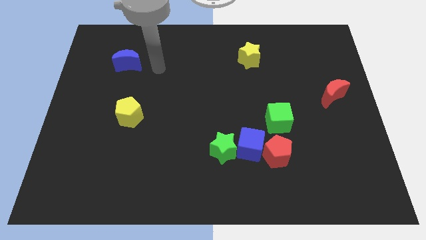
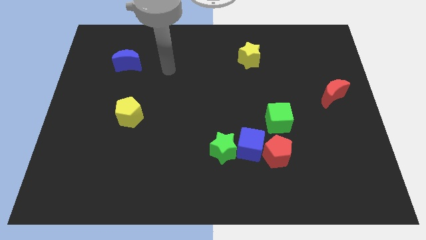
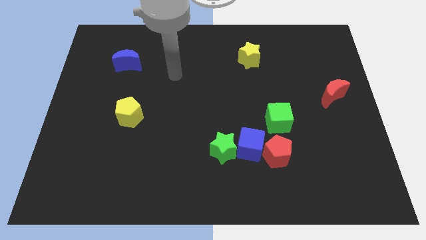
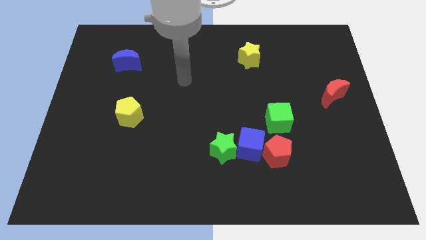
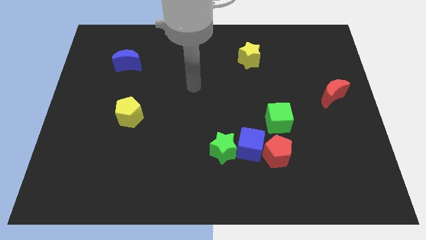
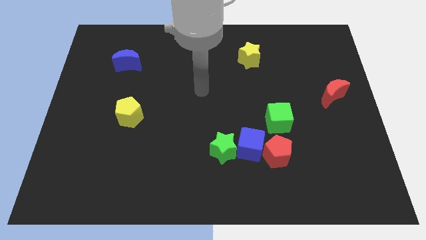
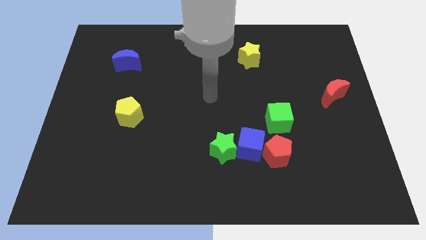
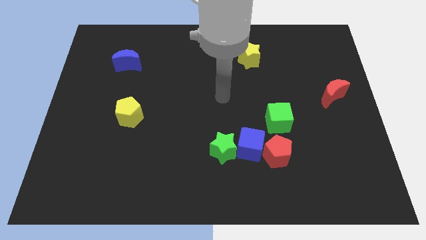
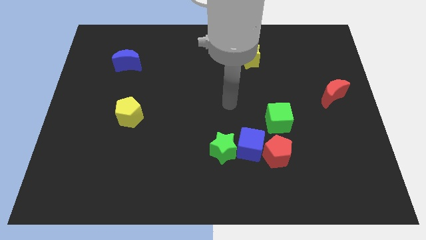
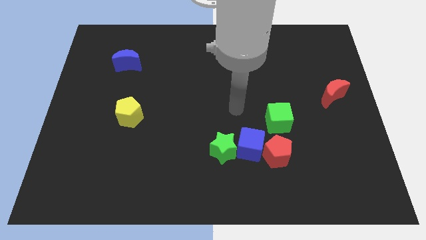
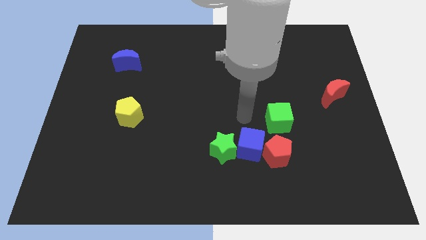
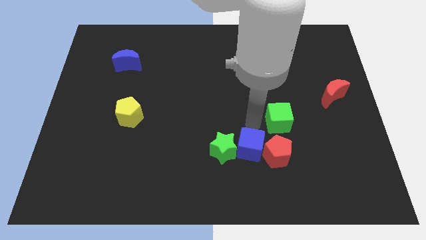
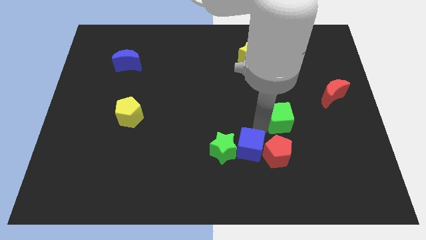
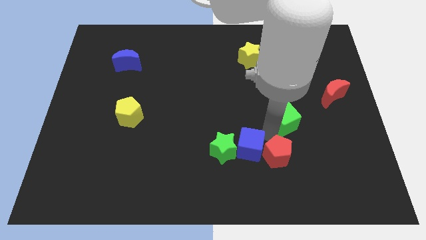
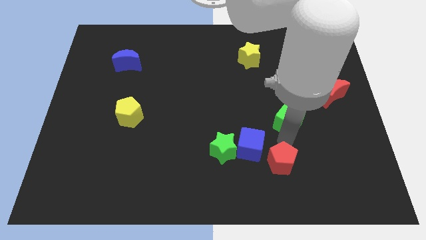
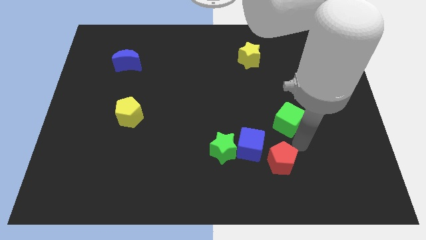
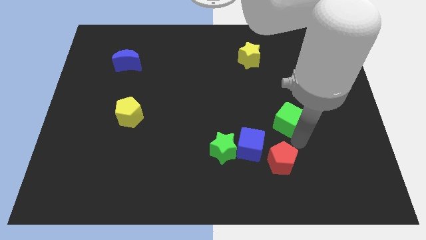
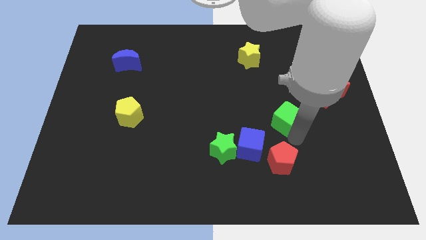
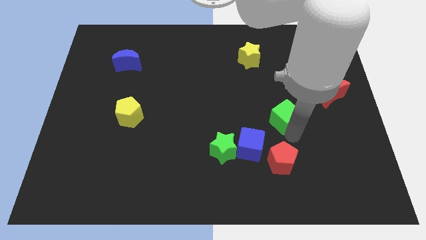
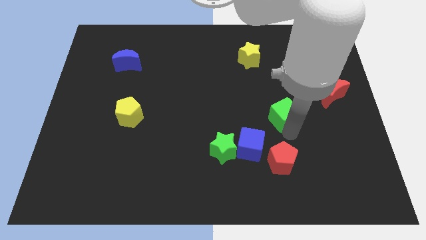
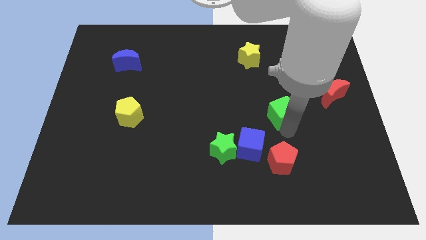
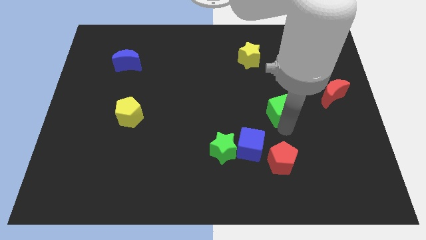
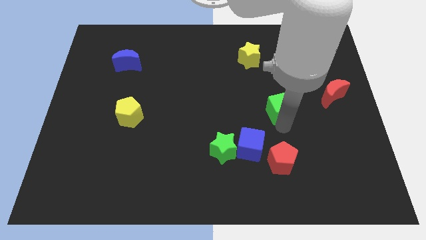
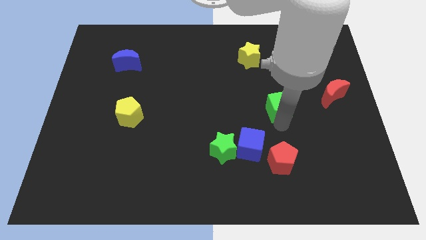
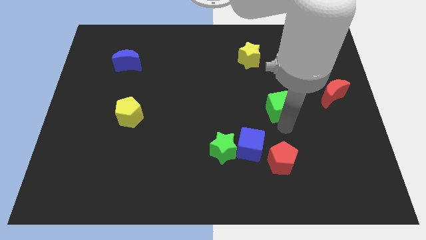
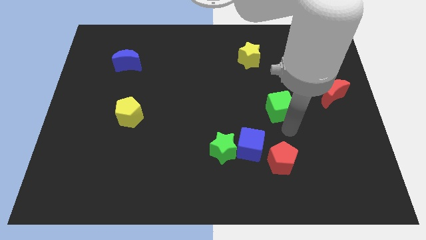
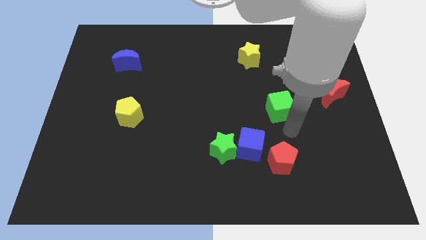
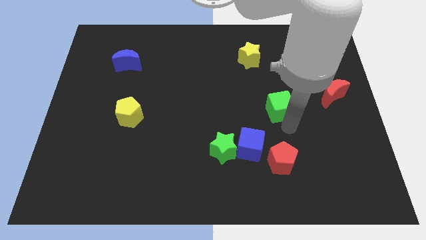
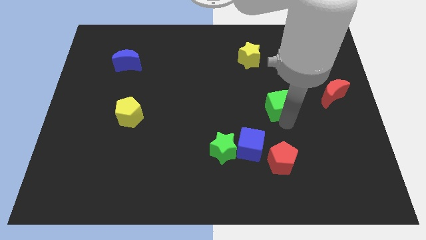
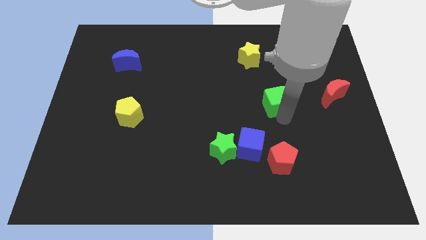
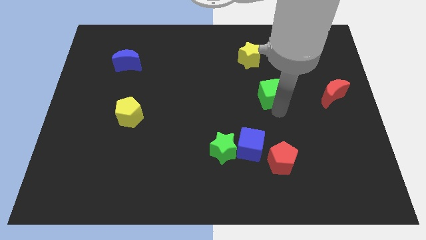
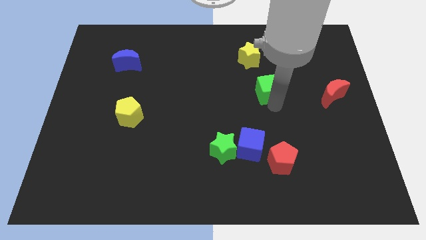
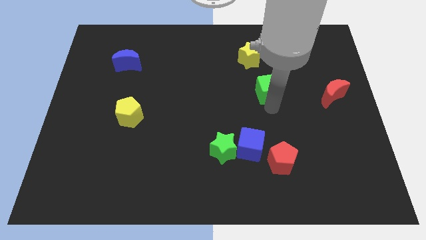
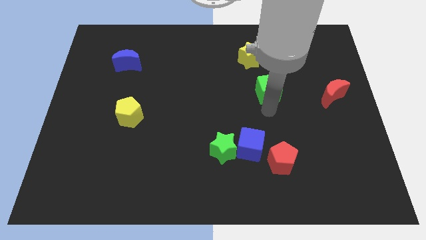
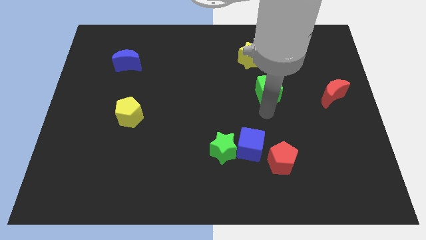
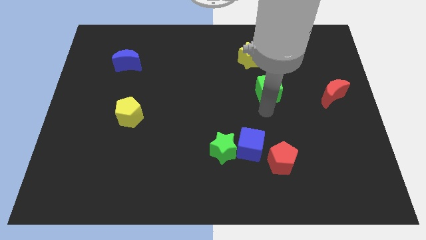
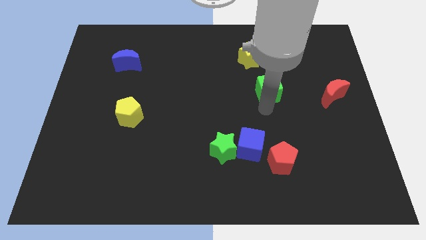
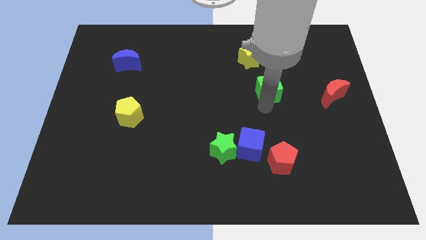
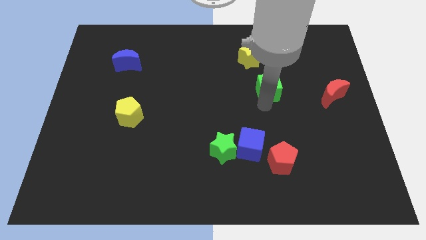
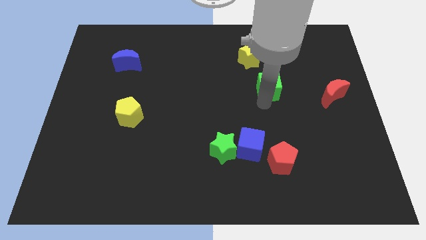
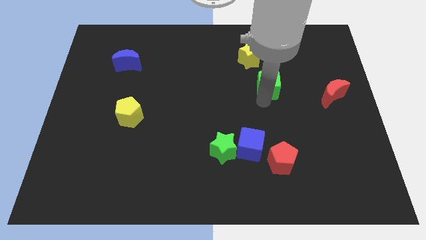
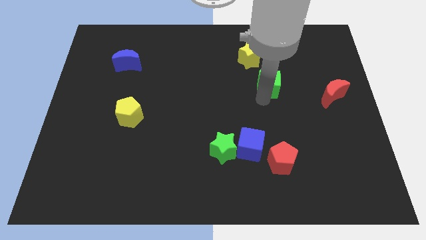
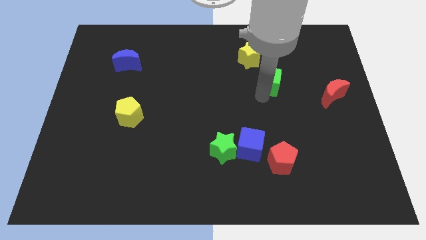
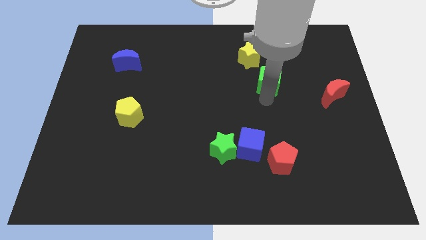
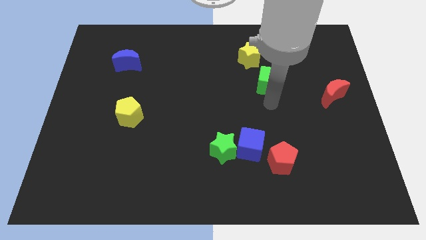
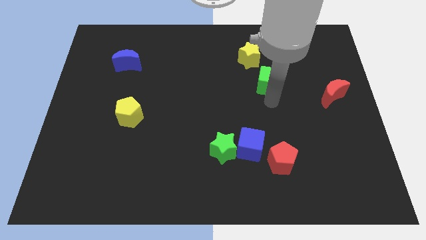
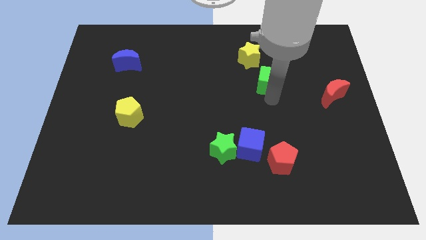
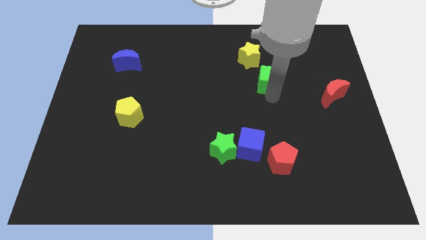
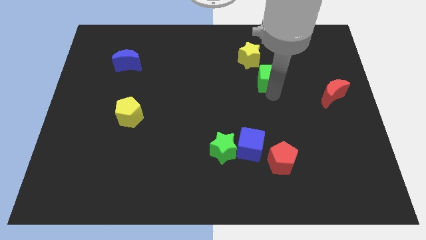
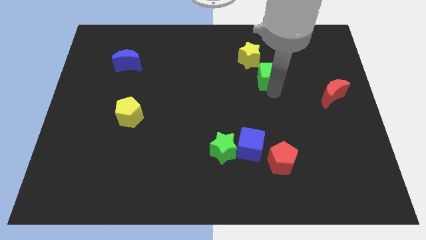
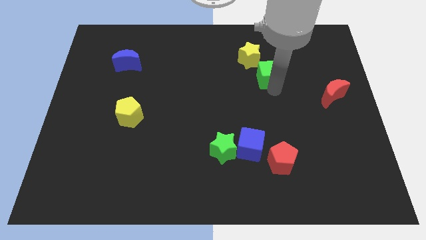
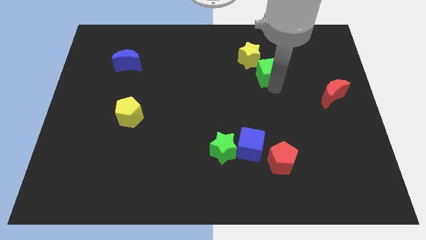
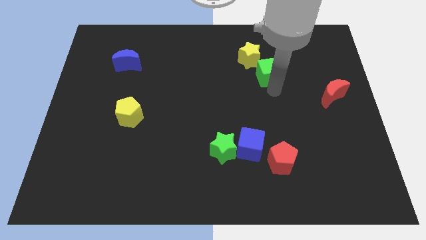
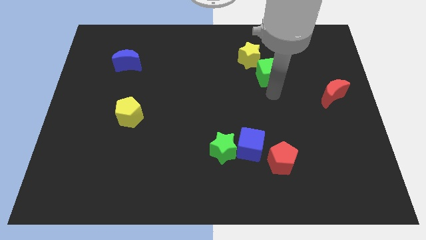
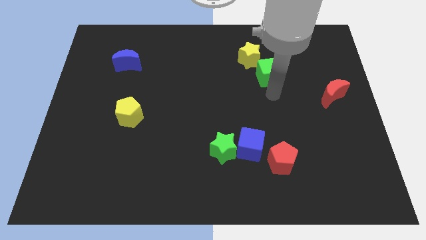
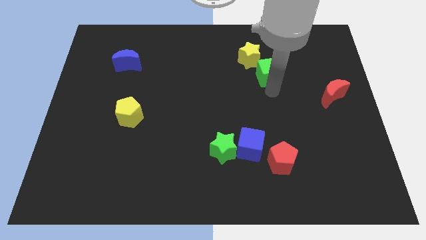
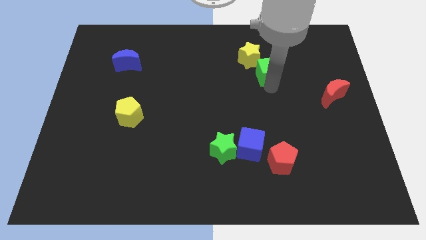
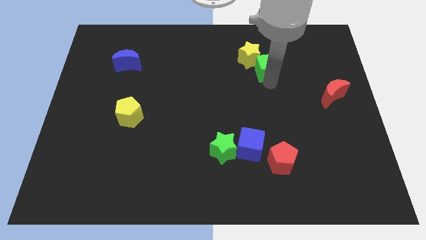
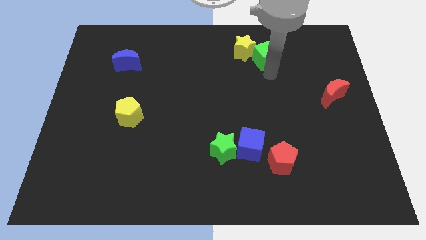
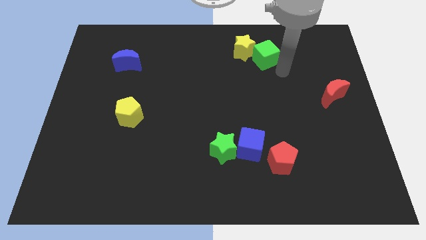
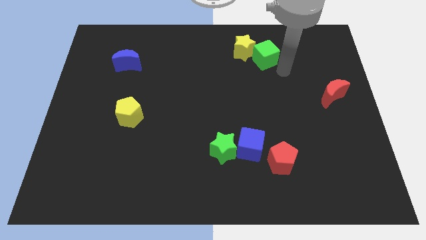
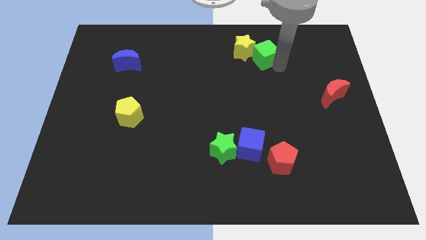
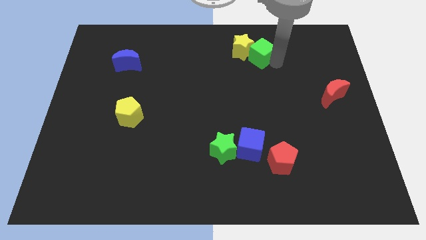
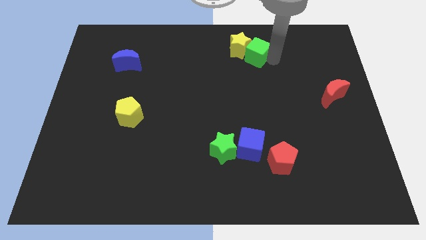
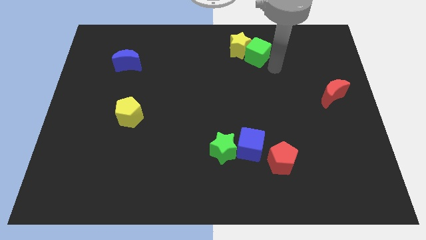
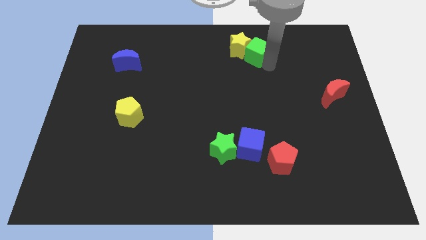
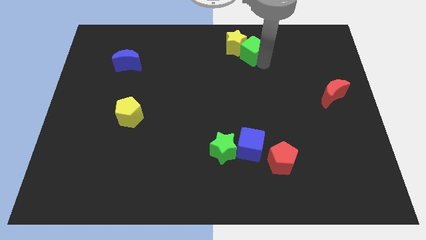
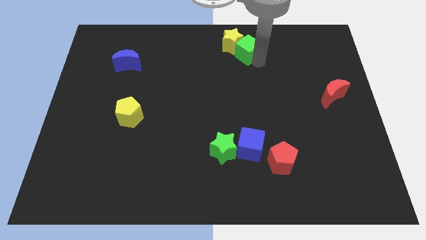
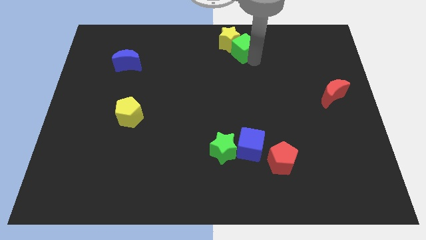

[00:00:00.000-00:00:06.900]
slide the green cube to the top side

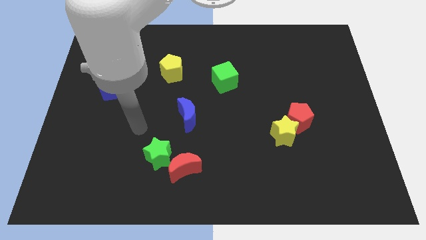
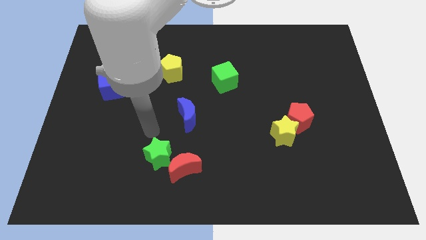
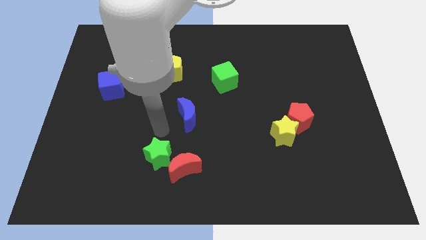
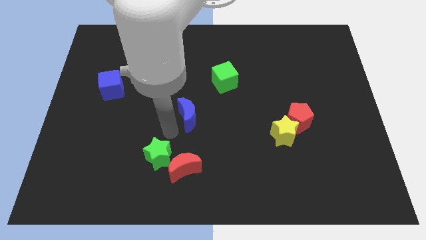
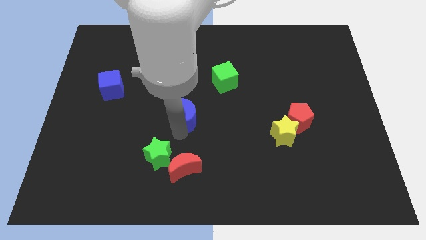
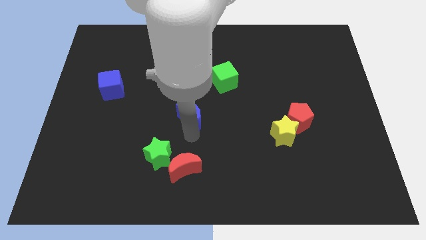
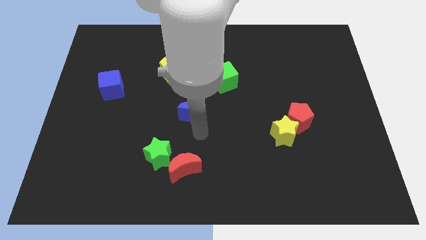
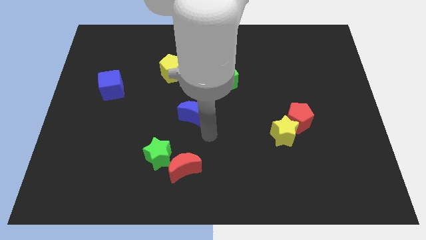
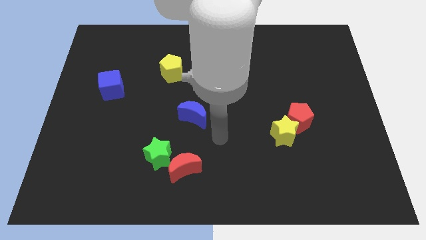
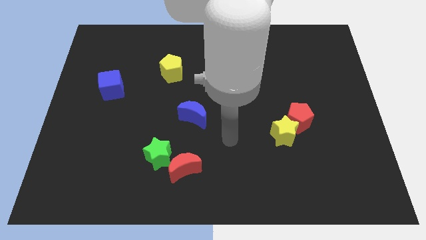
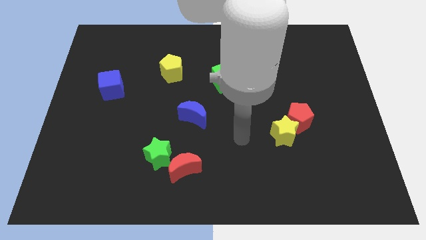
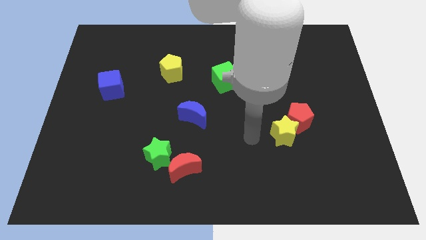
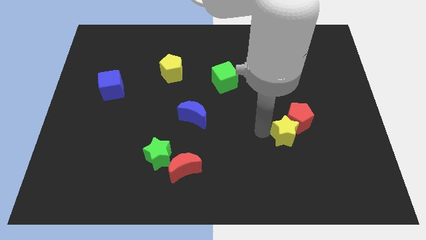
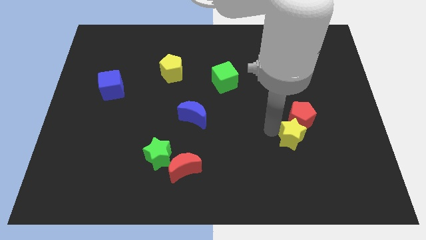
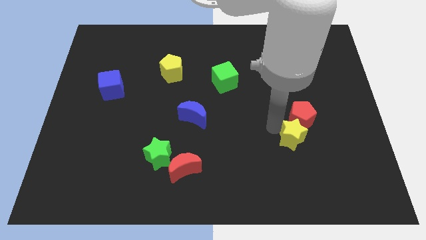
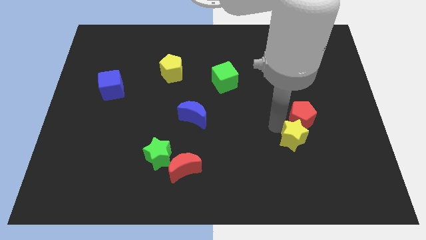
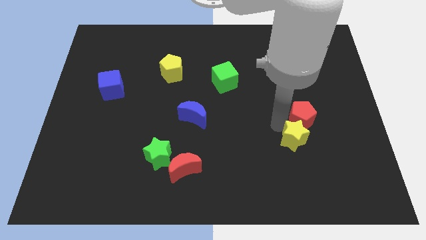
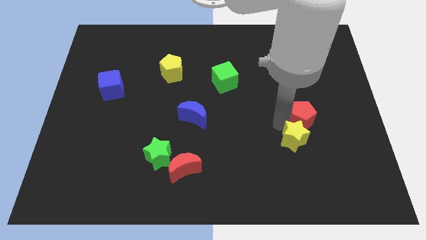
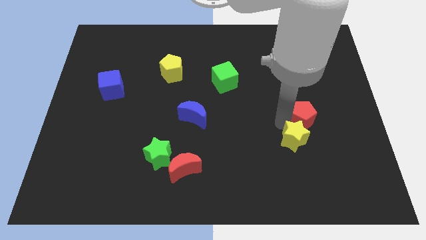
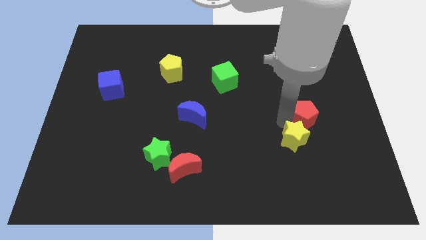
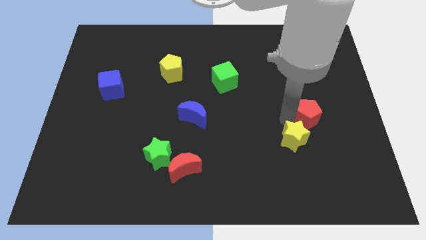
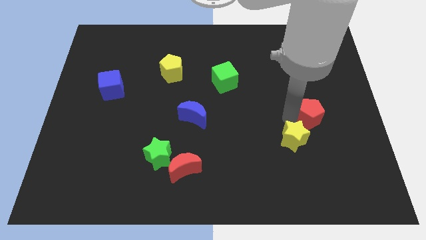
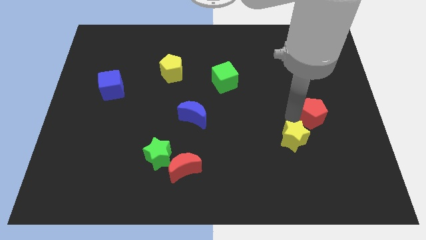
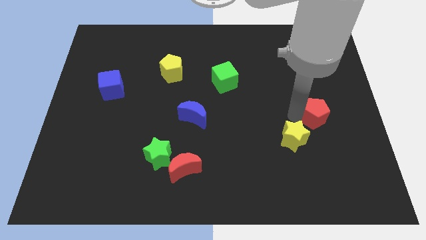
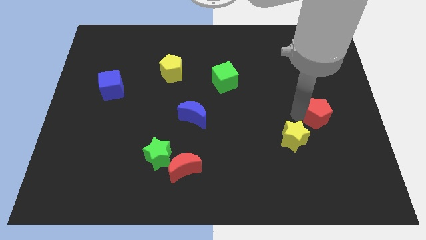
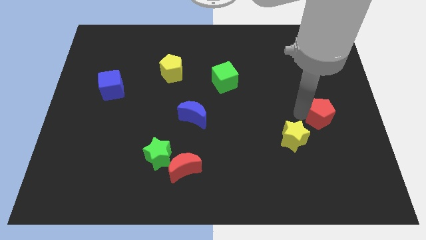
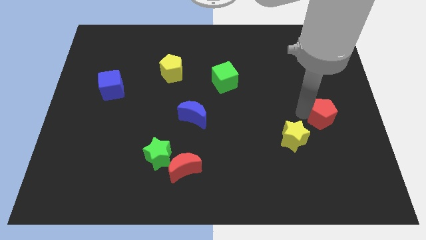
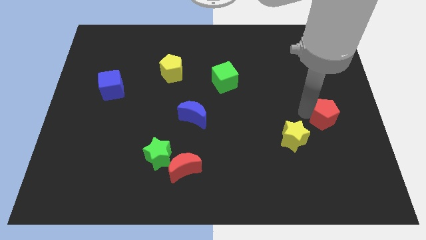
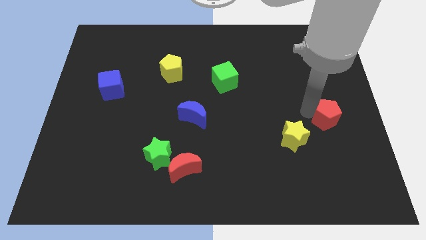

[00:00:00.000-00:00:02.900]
move the red pentagon to the right side
